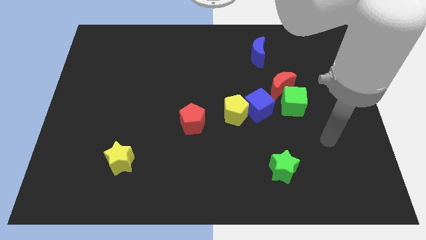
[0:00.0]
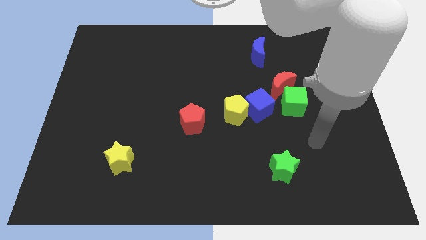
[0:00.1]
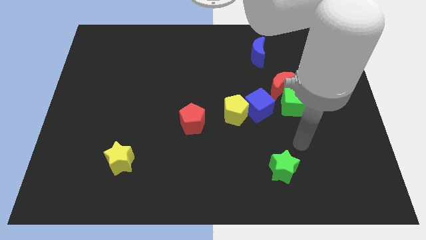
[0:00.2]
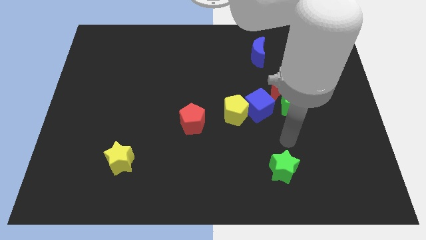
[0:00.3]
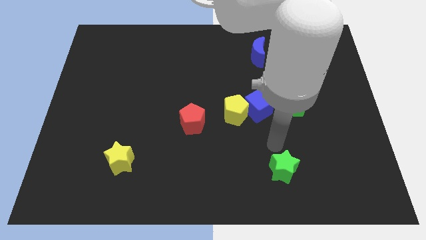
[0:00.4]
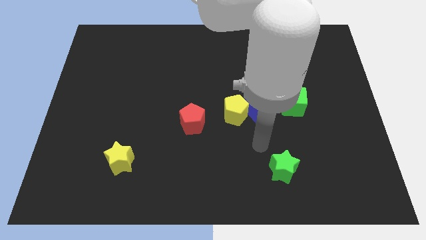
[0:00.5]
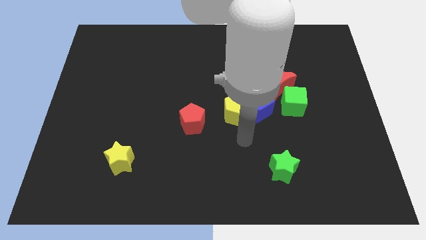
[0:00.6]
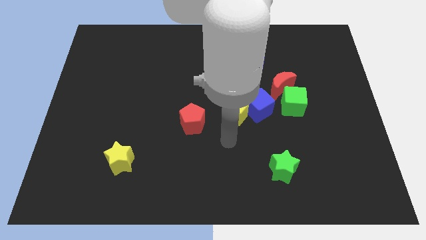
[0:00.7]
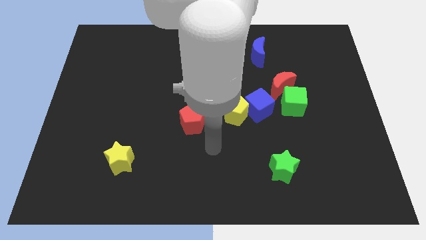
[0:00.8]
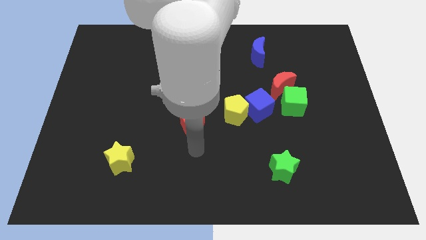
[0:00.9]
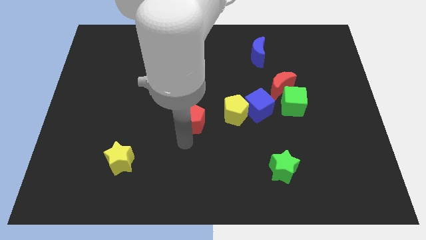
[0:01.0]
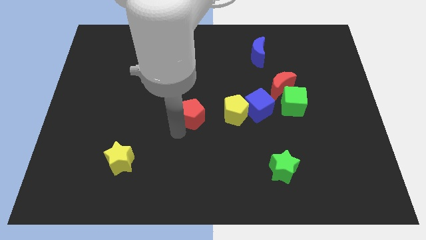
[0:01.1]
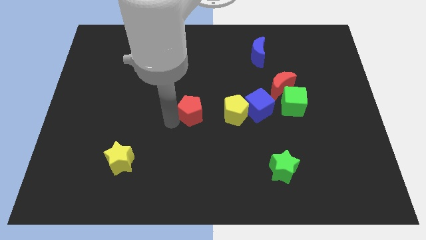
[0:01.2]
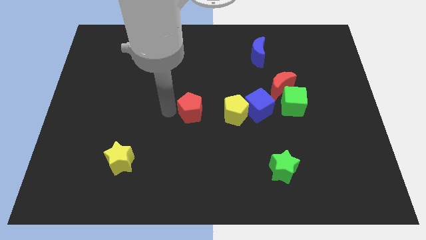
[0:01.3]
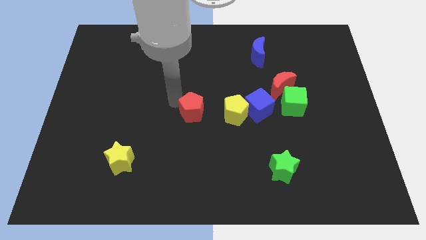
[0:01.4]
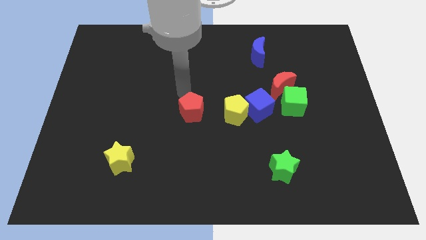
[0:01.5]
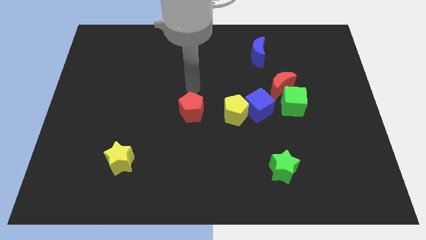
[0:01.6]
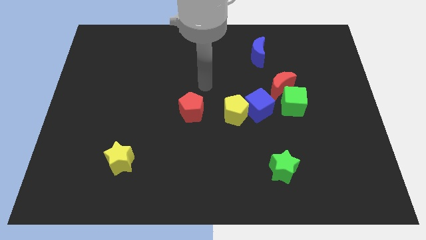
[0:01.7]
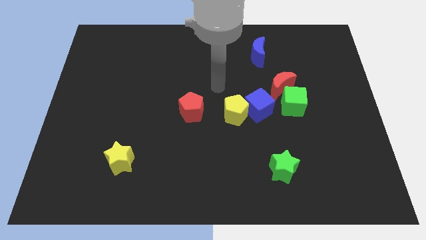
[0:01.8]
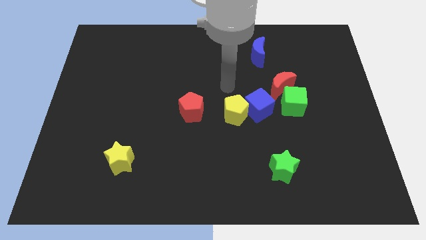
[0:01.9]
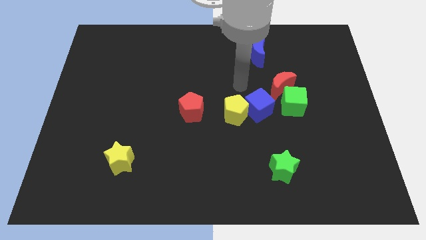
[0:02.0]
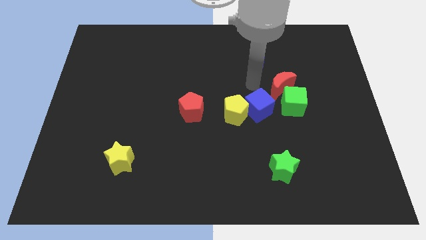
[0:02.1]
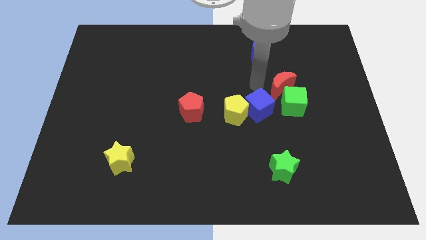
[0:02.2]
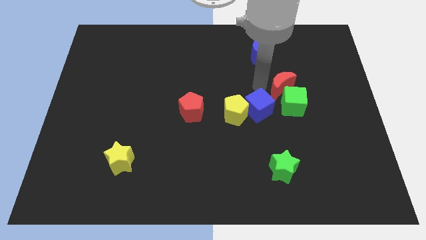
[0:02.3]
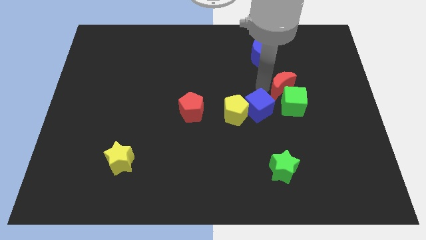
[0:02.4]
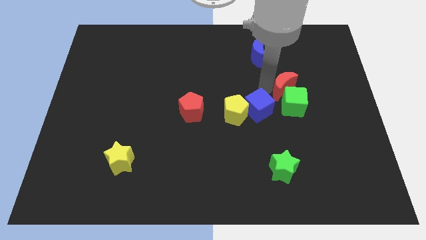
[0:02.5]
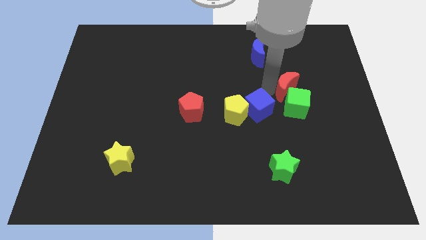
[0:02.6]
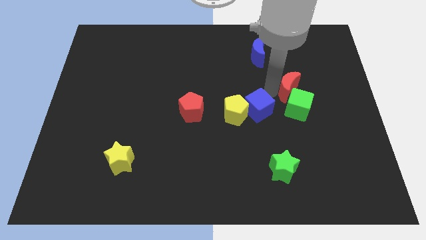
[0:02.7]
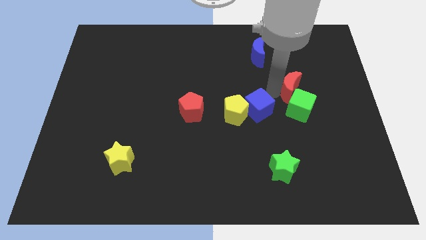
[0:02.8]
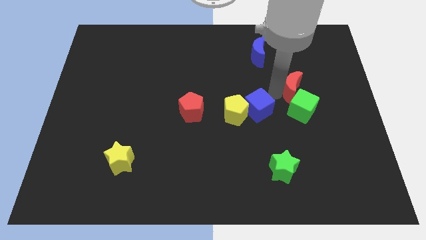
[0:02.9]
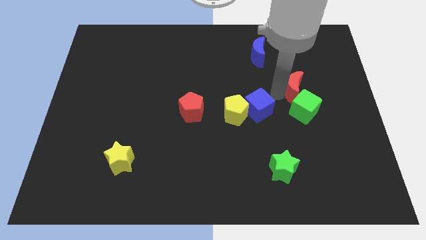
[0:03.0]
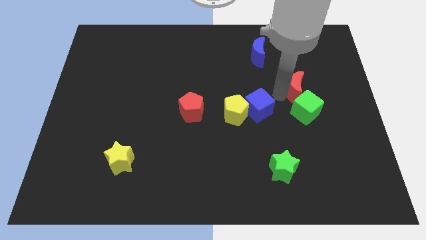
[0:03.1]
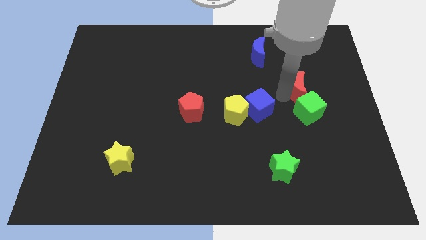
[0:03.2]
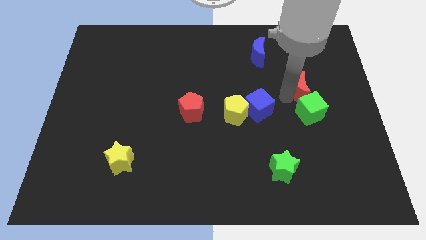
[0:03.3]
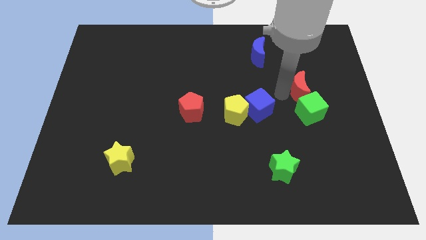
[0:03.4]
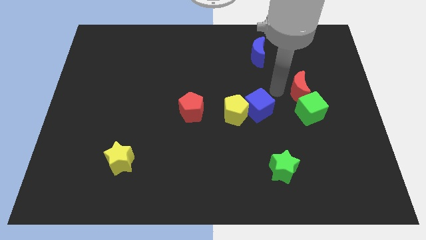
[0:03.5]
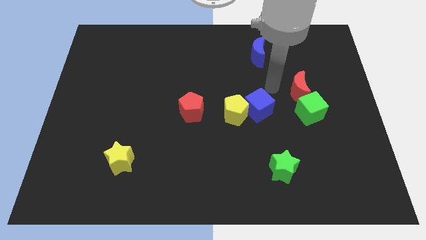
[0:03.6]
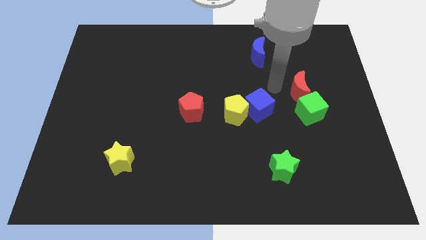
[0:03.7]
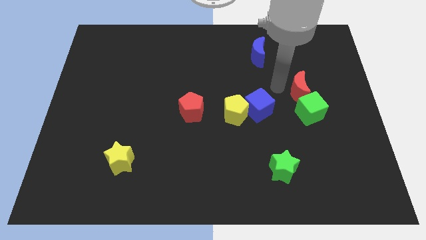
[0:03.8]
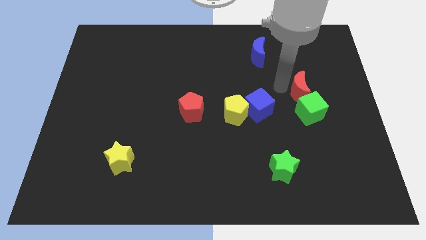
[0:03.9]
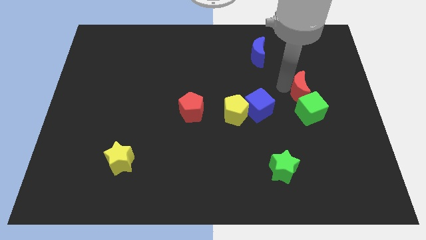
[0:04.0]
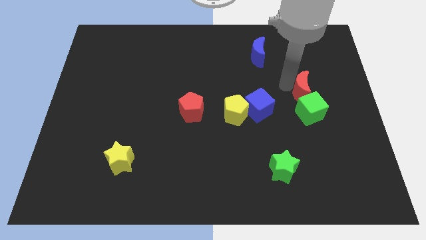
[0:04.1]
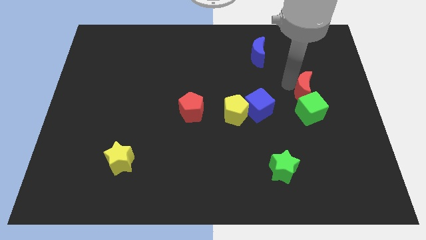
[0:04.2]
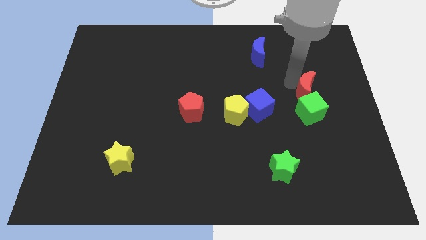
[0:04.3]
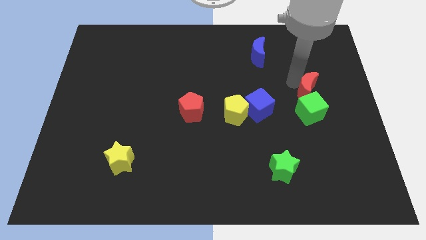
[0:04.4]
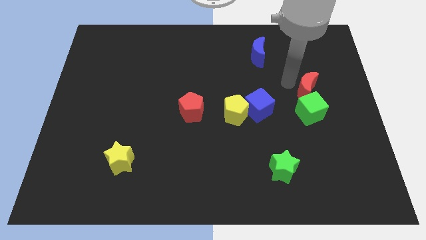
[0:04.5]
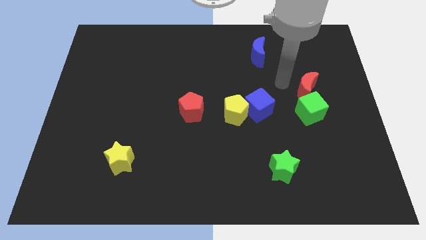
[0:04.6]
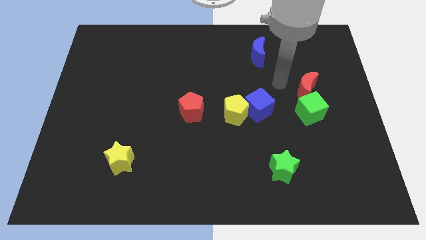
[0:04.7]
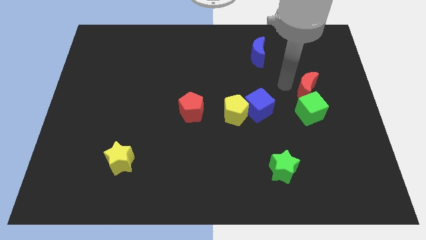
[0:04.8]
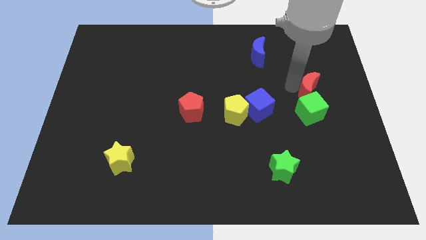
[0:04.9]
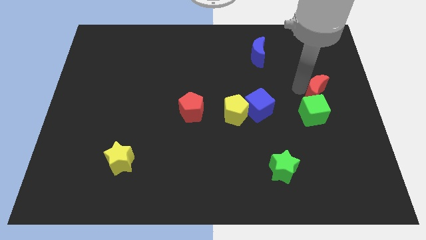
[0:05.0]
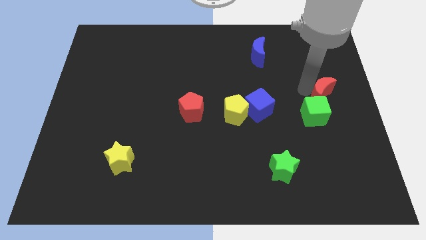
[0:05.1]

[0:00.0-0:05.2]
move the red moon to the right side of the board

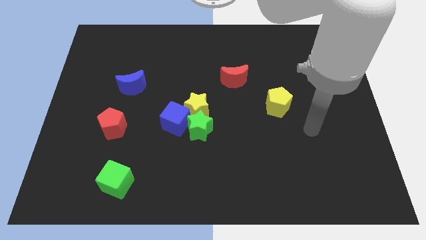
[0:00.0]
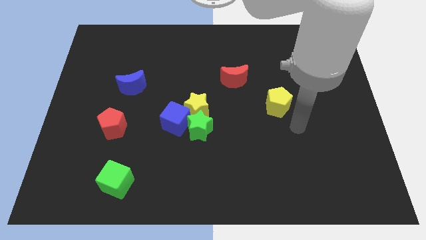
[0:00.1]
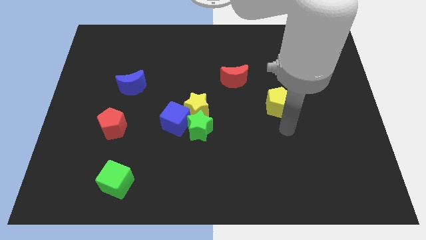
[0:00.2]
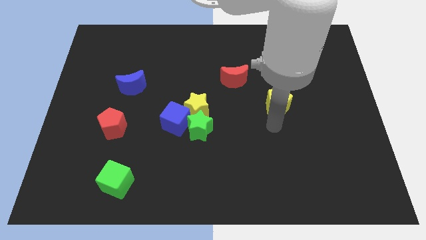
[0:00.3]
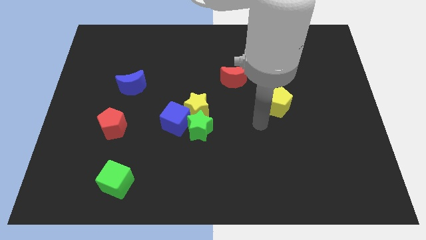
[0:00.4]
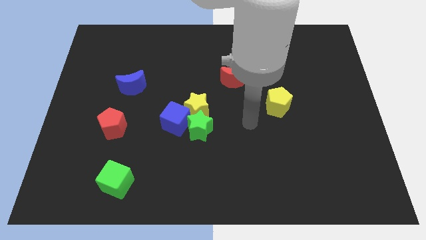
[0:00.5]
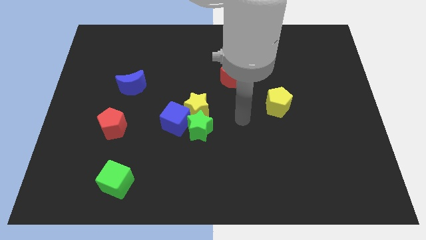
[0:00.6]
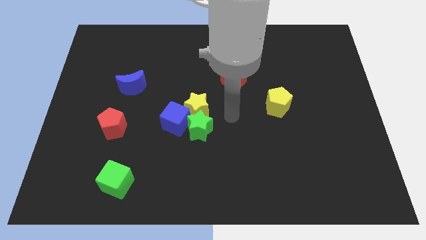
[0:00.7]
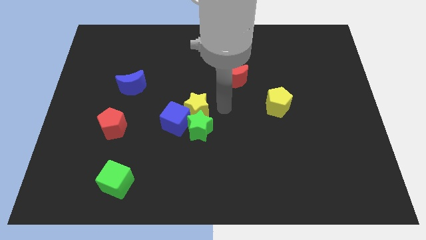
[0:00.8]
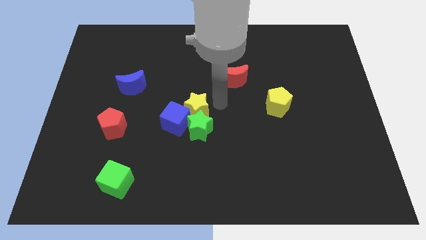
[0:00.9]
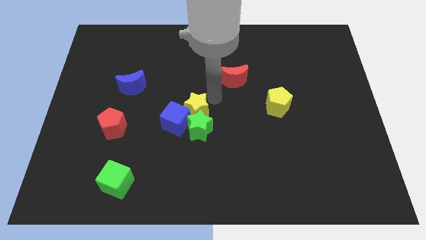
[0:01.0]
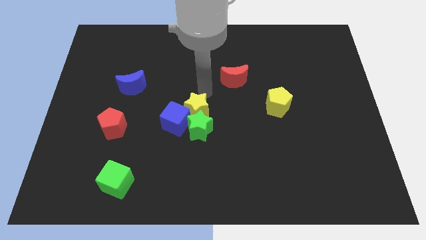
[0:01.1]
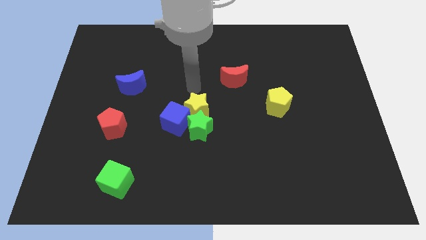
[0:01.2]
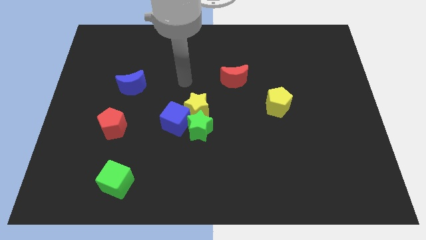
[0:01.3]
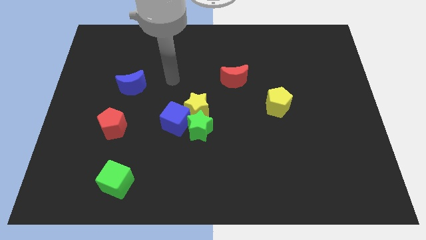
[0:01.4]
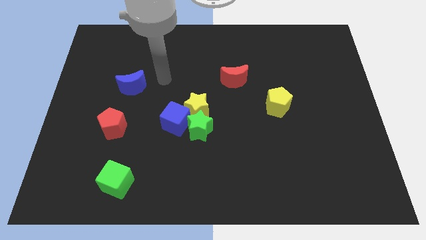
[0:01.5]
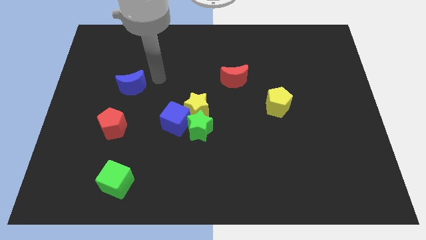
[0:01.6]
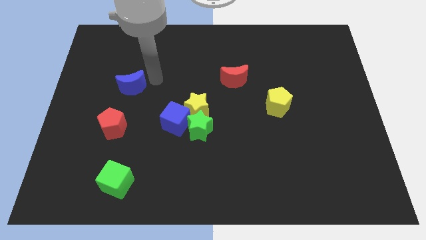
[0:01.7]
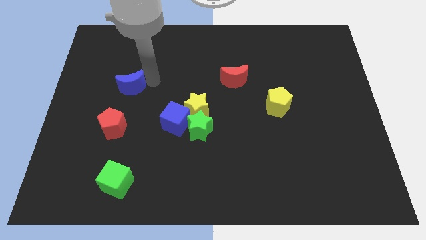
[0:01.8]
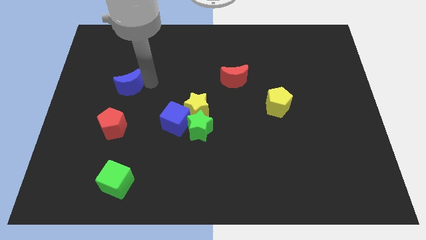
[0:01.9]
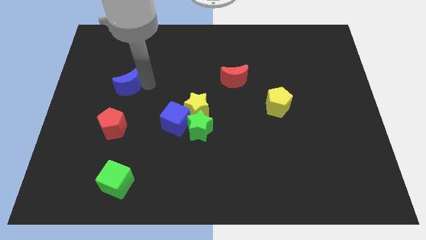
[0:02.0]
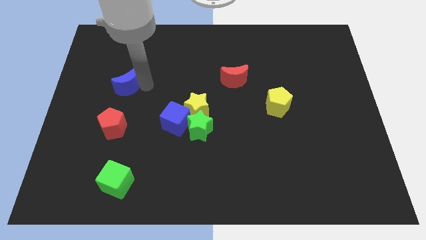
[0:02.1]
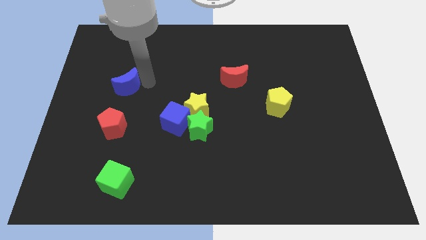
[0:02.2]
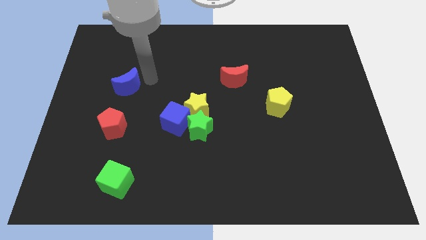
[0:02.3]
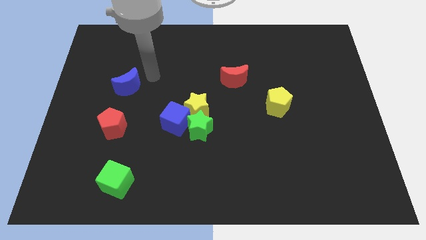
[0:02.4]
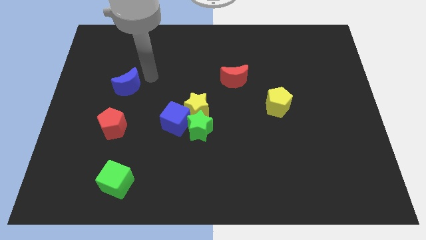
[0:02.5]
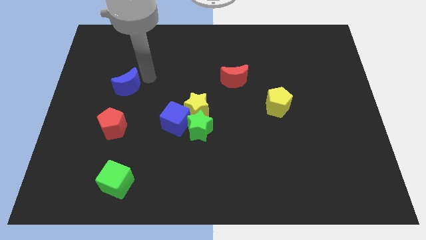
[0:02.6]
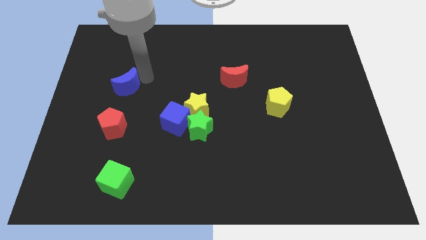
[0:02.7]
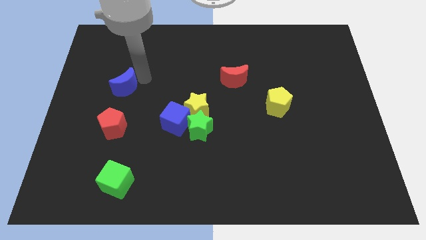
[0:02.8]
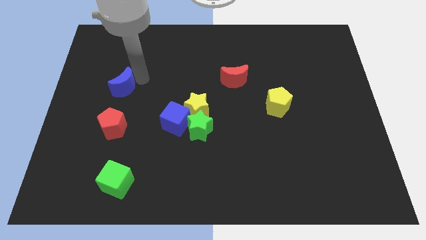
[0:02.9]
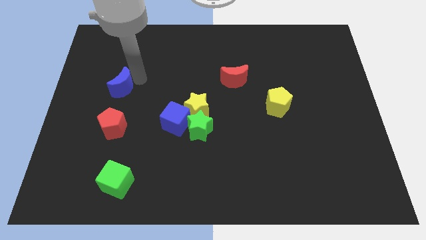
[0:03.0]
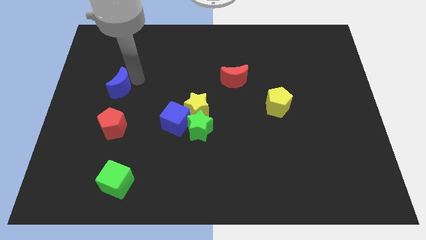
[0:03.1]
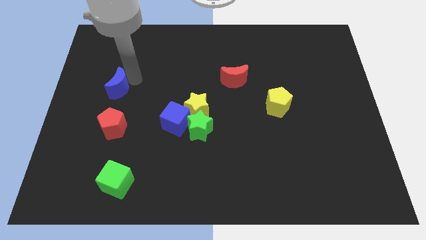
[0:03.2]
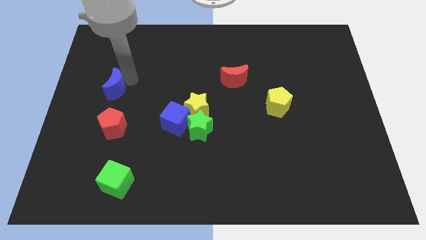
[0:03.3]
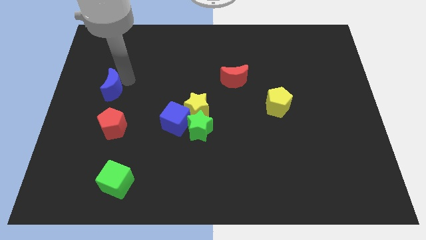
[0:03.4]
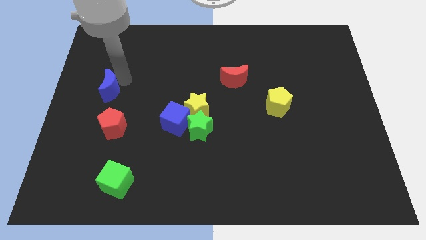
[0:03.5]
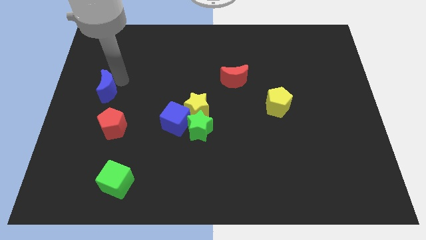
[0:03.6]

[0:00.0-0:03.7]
move the blue moon to the center left
